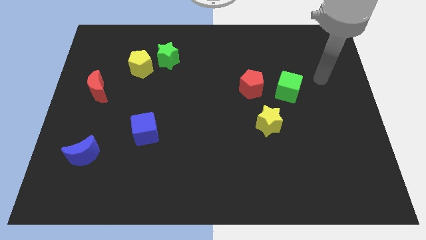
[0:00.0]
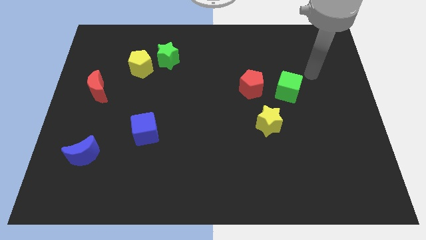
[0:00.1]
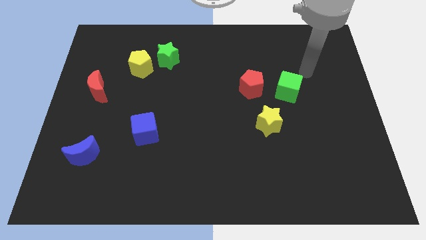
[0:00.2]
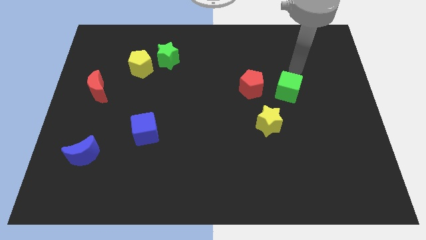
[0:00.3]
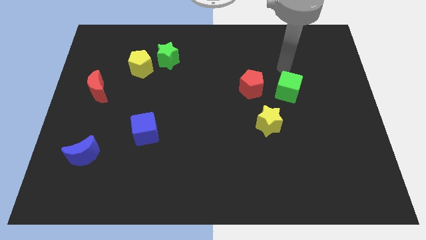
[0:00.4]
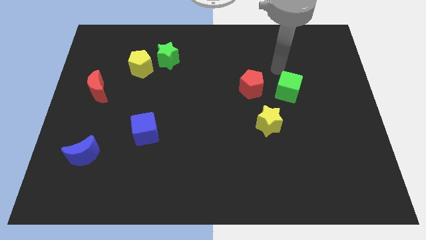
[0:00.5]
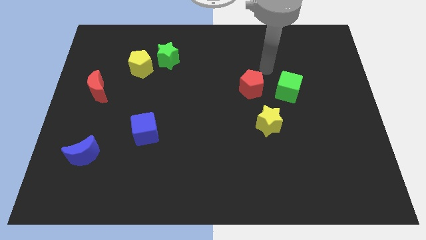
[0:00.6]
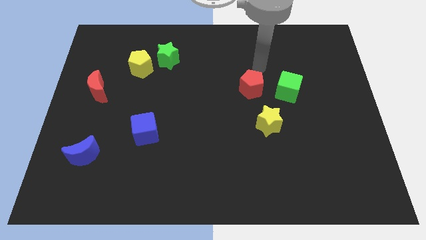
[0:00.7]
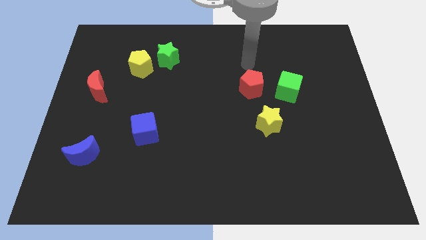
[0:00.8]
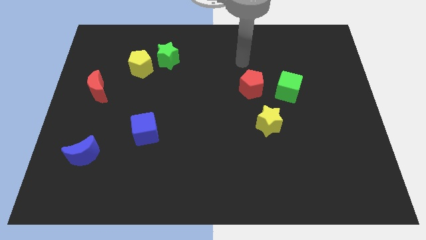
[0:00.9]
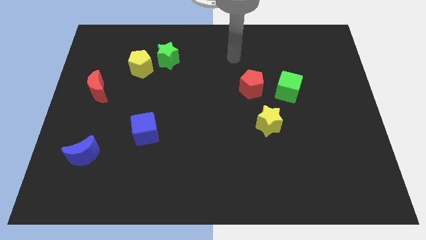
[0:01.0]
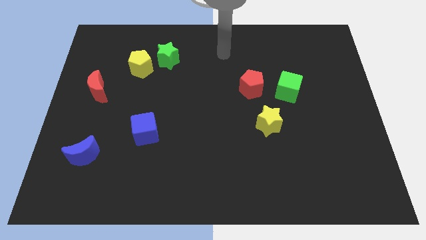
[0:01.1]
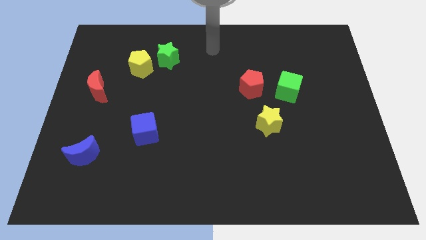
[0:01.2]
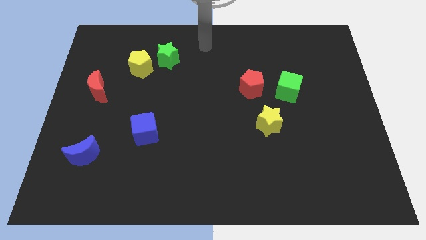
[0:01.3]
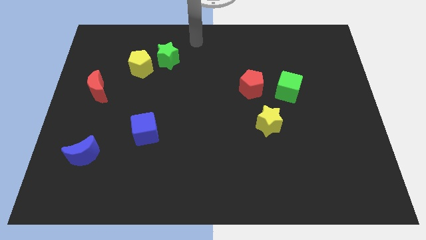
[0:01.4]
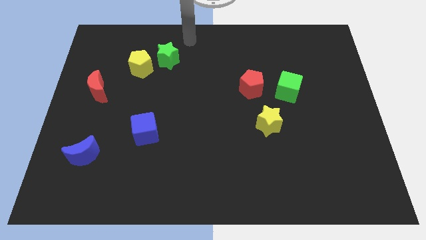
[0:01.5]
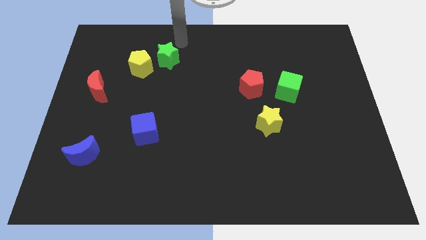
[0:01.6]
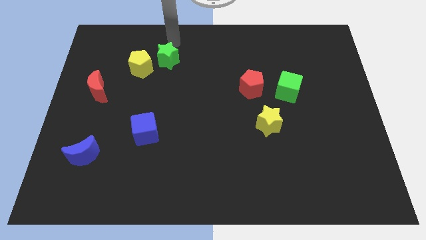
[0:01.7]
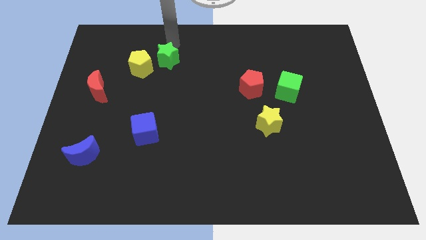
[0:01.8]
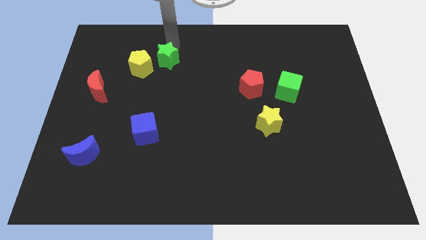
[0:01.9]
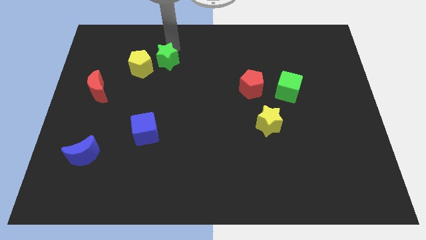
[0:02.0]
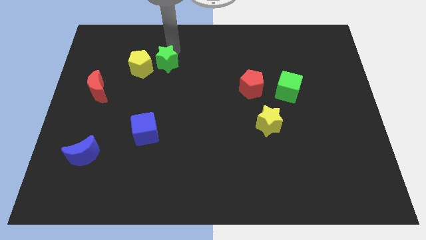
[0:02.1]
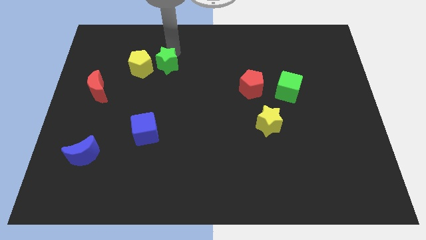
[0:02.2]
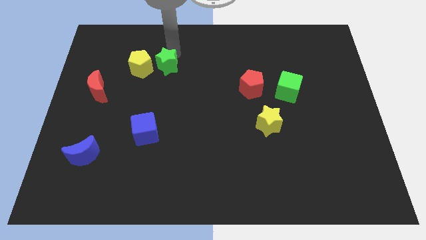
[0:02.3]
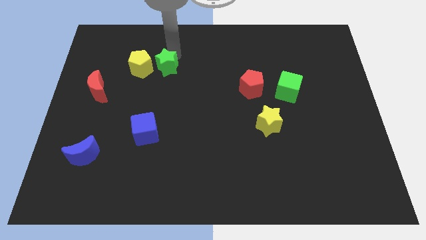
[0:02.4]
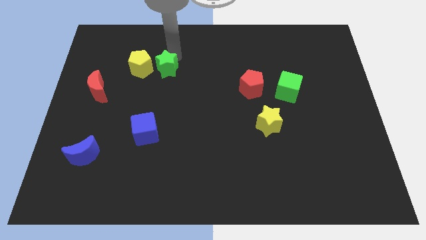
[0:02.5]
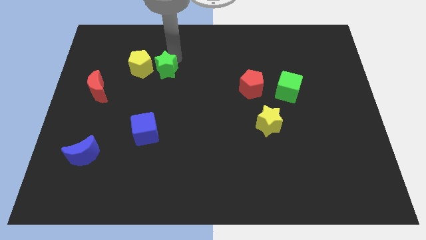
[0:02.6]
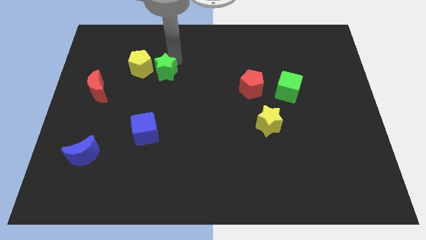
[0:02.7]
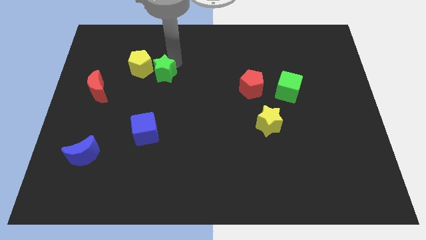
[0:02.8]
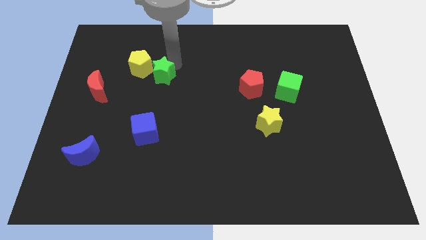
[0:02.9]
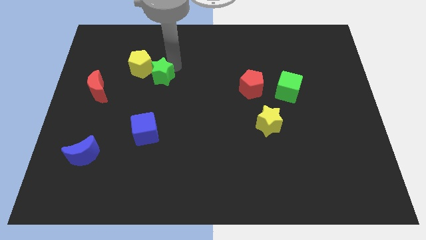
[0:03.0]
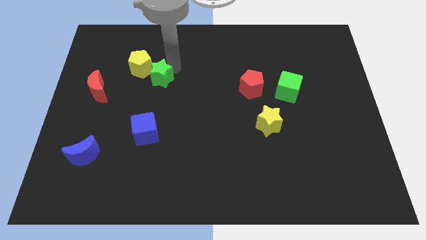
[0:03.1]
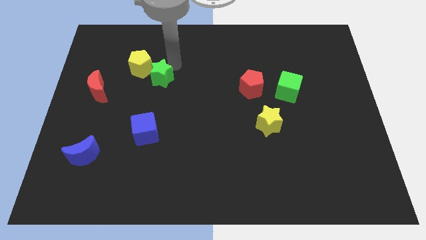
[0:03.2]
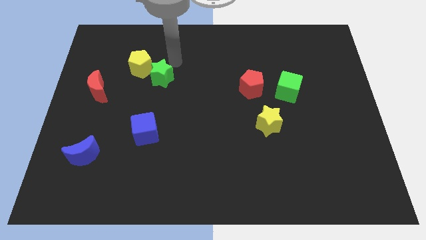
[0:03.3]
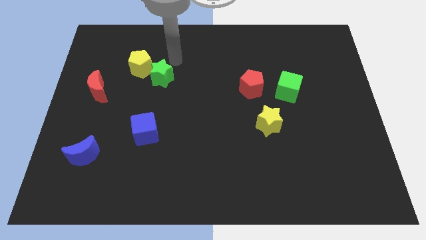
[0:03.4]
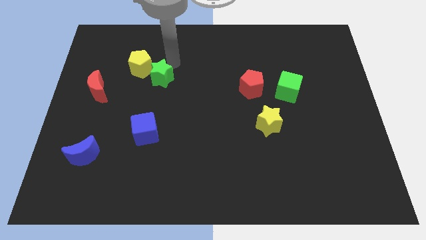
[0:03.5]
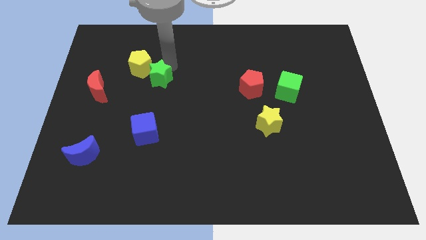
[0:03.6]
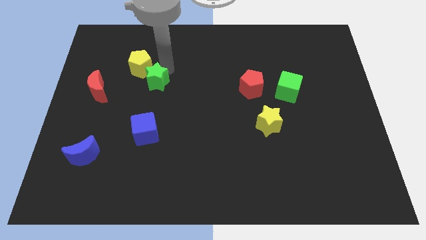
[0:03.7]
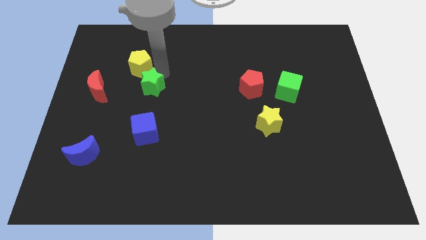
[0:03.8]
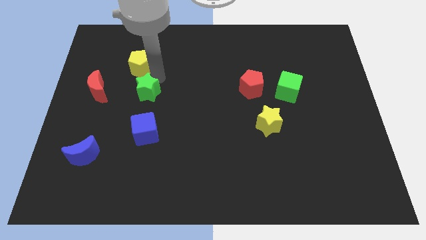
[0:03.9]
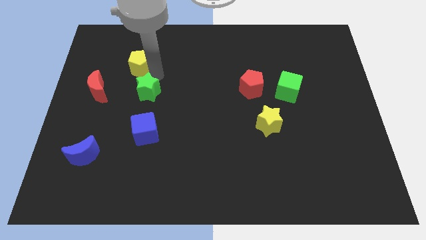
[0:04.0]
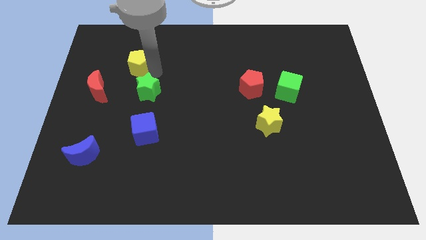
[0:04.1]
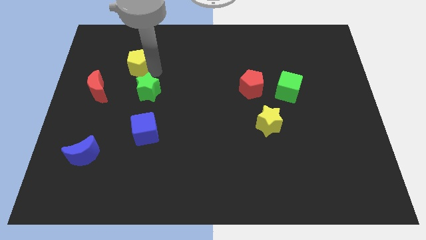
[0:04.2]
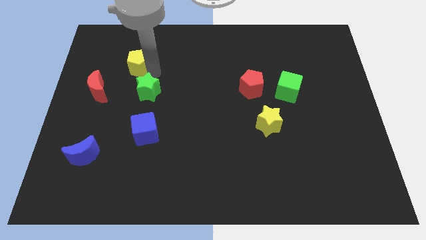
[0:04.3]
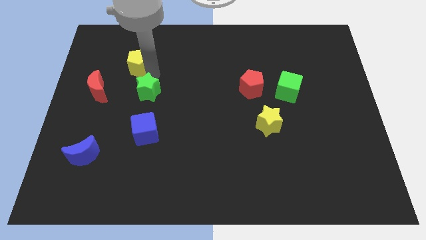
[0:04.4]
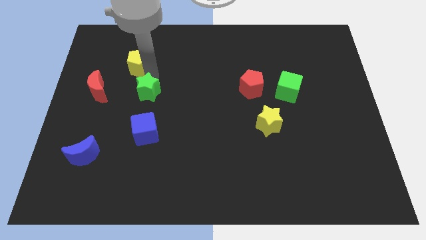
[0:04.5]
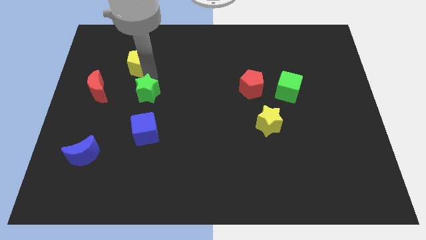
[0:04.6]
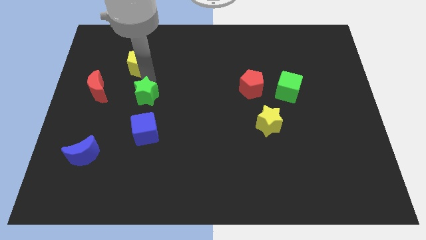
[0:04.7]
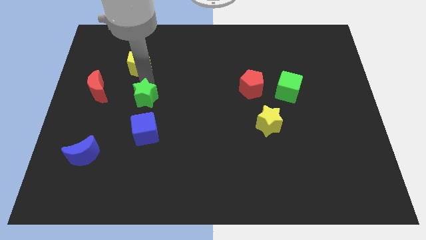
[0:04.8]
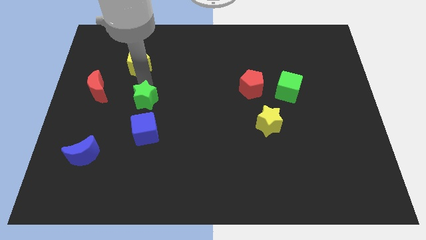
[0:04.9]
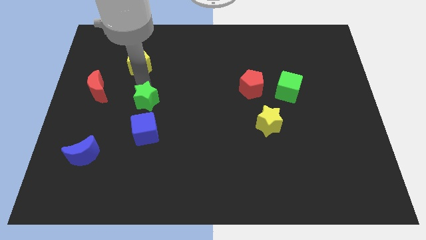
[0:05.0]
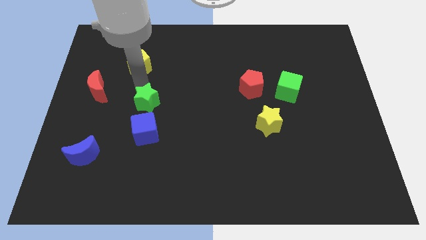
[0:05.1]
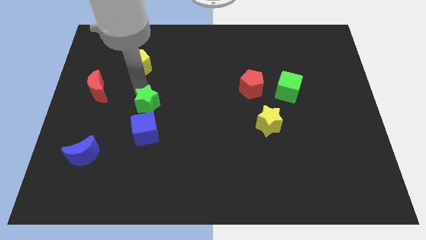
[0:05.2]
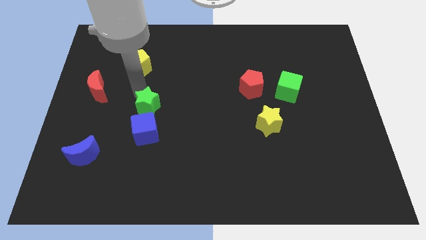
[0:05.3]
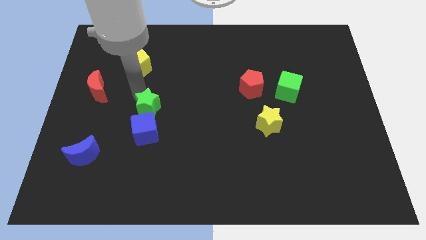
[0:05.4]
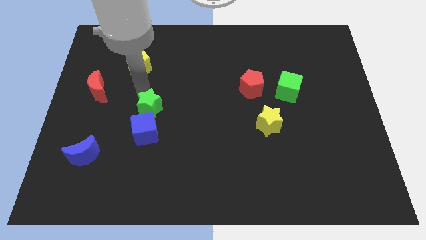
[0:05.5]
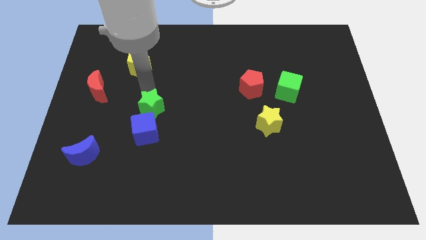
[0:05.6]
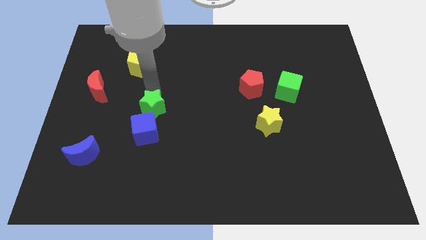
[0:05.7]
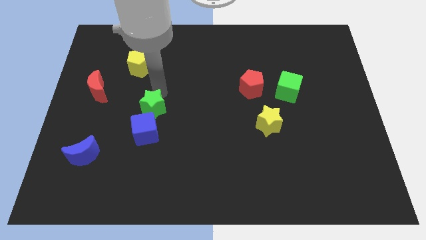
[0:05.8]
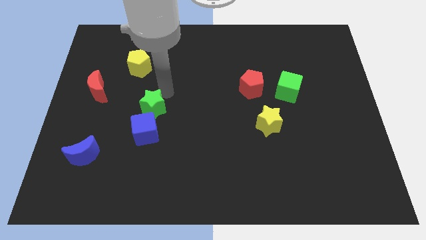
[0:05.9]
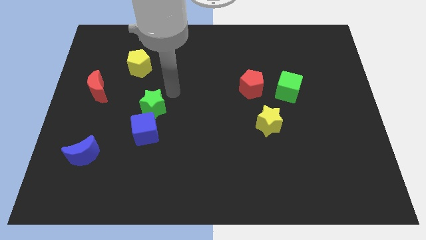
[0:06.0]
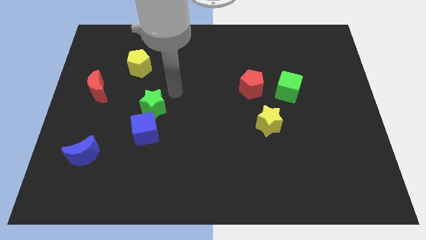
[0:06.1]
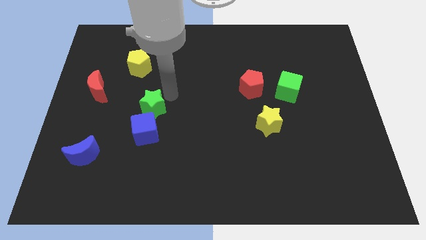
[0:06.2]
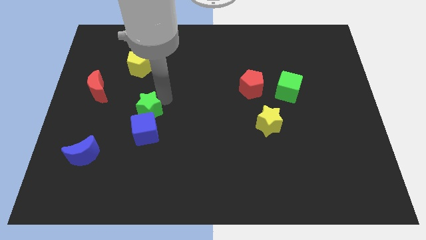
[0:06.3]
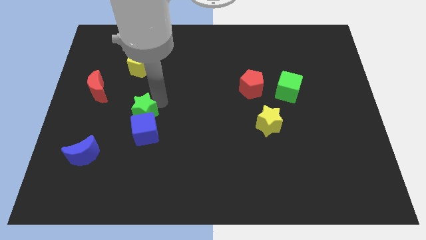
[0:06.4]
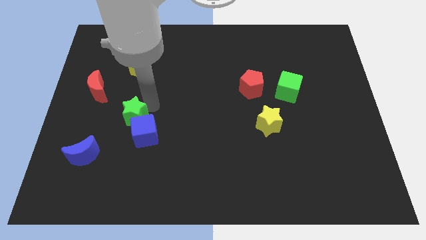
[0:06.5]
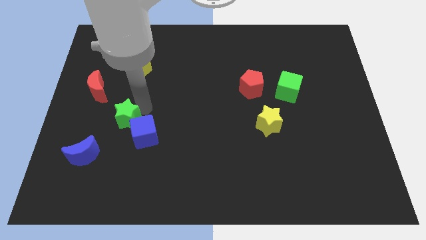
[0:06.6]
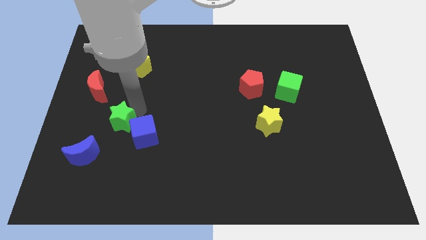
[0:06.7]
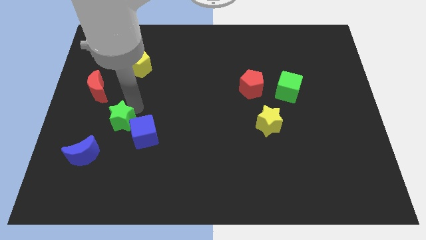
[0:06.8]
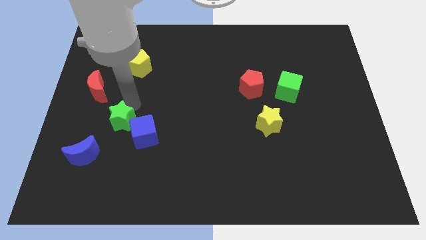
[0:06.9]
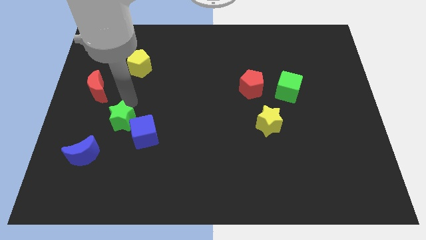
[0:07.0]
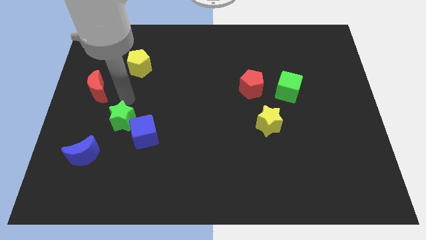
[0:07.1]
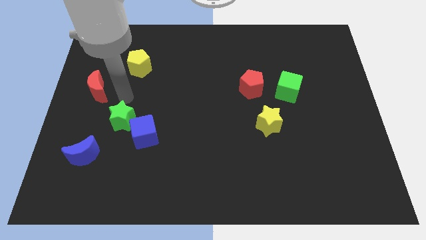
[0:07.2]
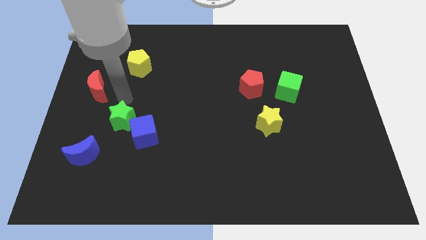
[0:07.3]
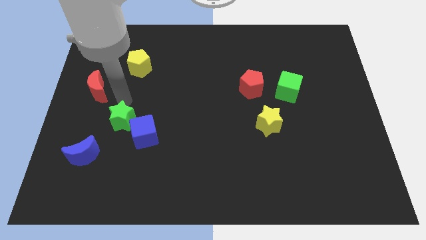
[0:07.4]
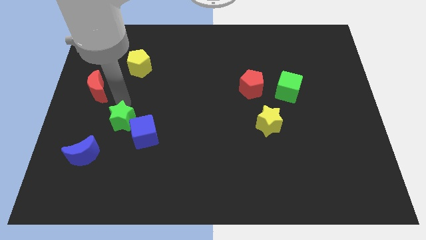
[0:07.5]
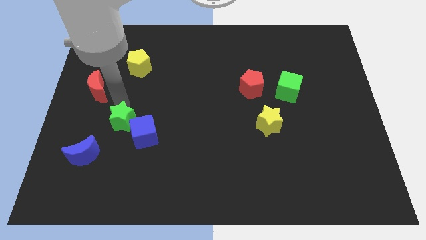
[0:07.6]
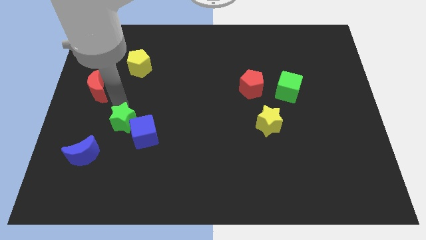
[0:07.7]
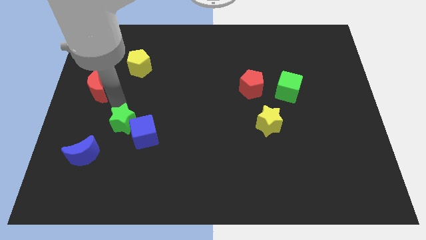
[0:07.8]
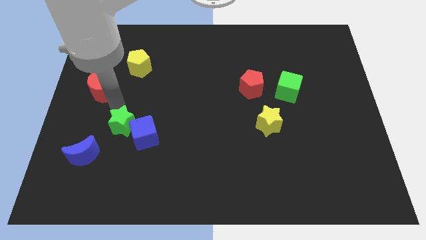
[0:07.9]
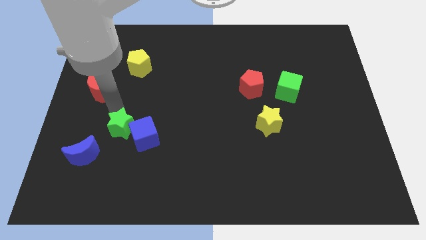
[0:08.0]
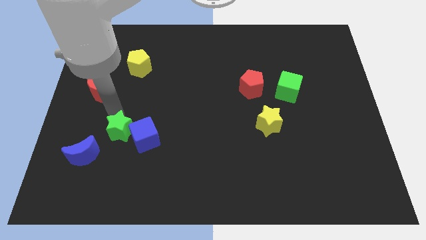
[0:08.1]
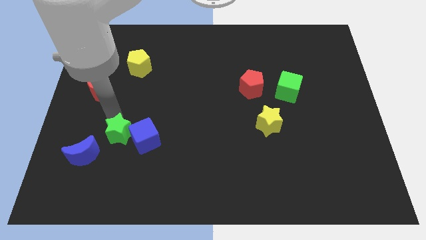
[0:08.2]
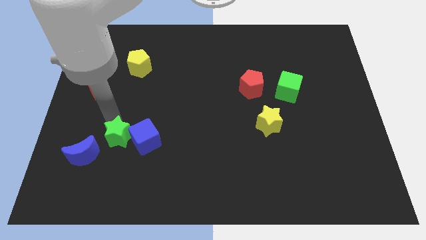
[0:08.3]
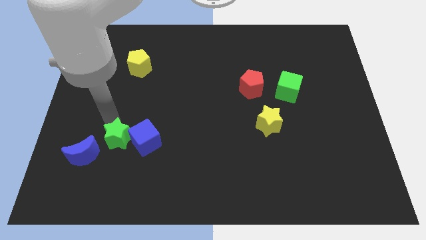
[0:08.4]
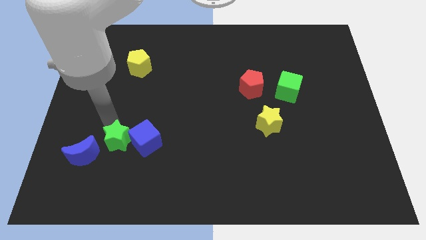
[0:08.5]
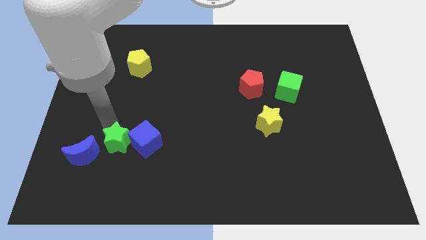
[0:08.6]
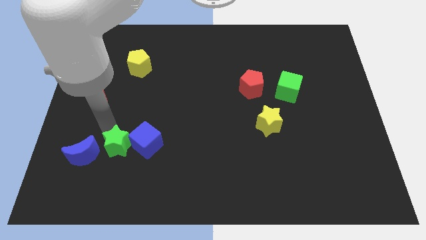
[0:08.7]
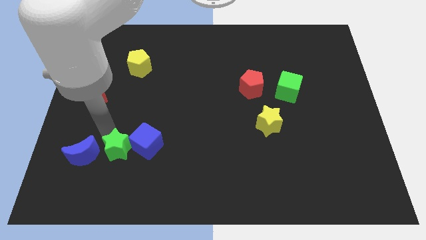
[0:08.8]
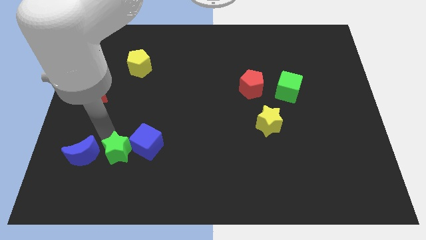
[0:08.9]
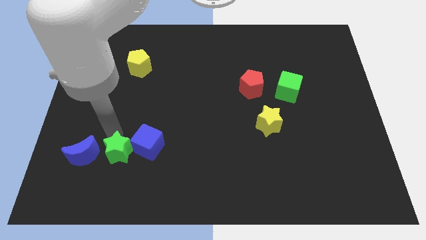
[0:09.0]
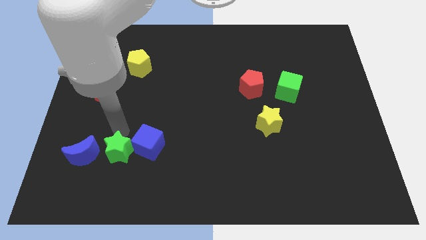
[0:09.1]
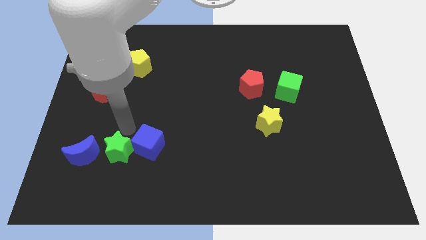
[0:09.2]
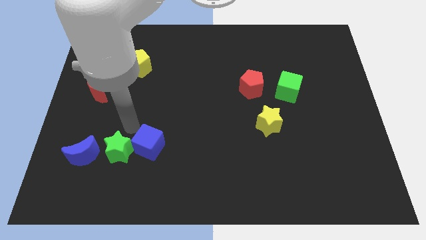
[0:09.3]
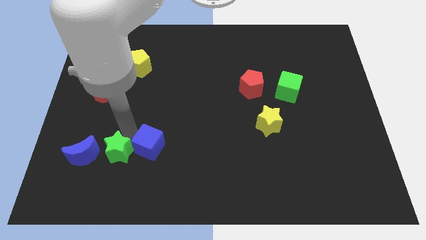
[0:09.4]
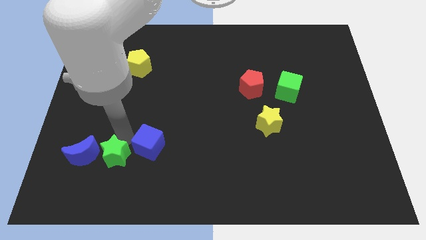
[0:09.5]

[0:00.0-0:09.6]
push the green star to the bottom right side of the blue moon
